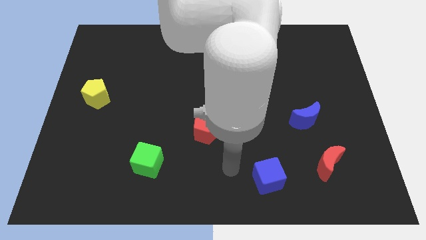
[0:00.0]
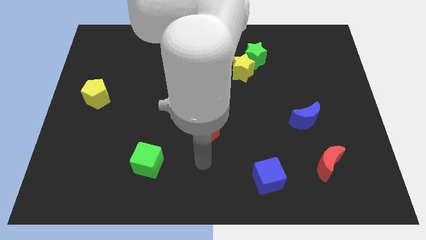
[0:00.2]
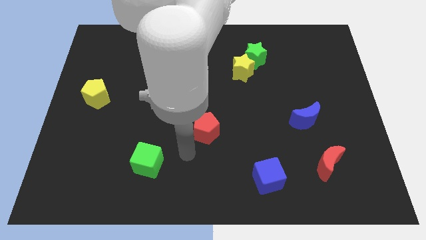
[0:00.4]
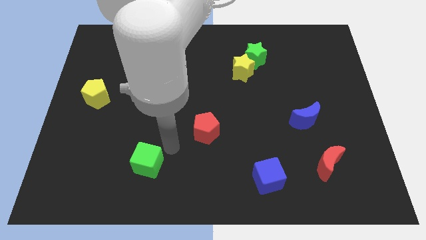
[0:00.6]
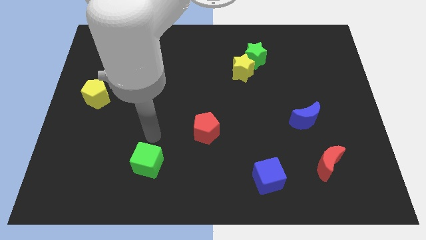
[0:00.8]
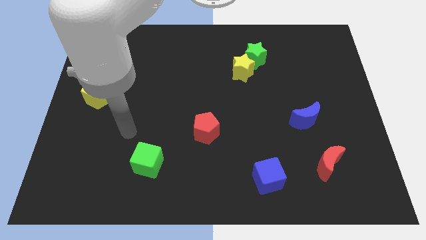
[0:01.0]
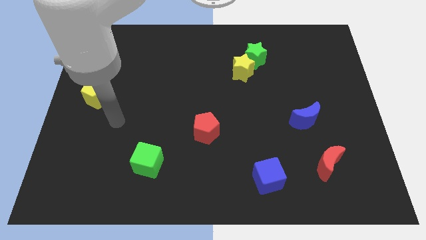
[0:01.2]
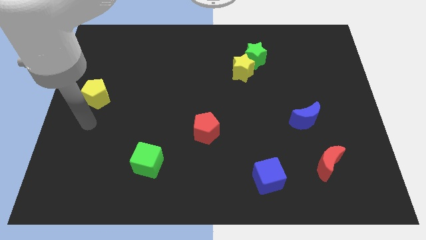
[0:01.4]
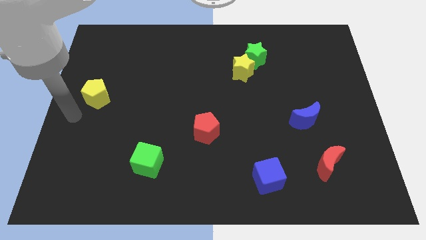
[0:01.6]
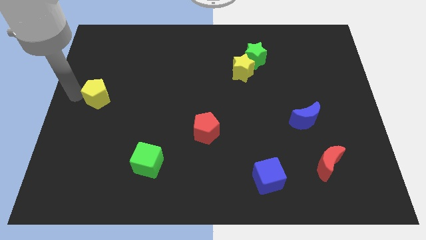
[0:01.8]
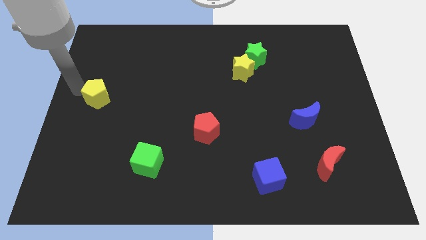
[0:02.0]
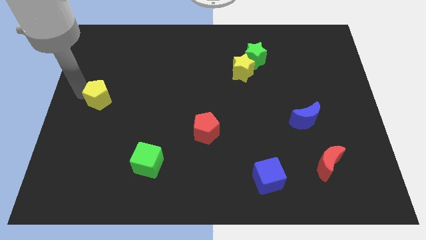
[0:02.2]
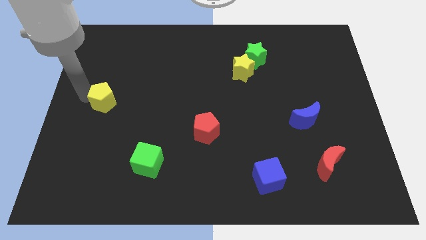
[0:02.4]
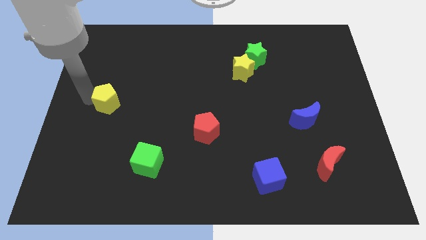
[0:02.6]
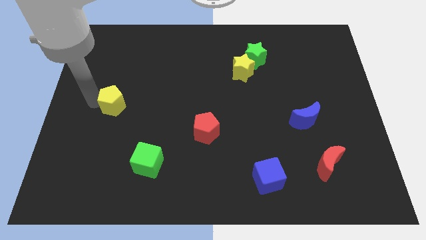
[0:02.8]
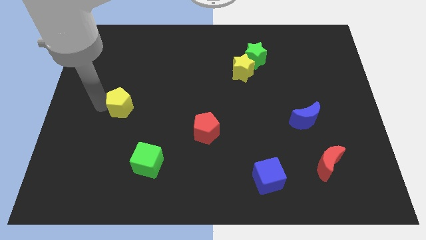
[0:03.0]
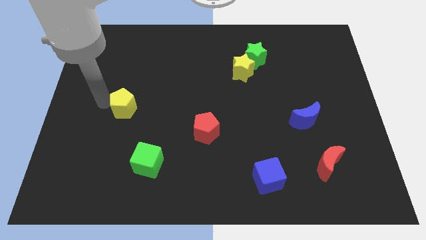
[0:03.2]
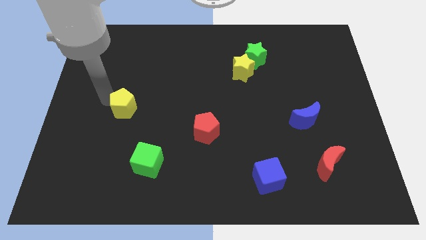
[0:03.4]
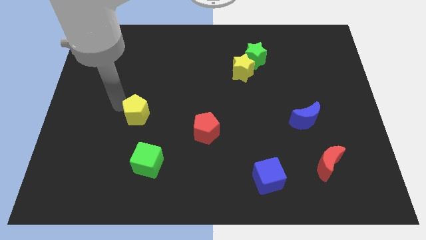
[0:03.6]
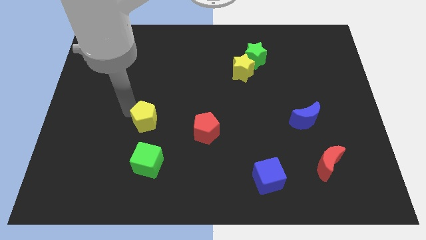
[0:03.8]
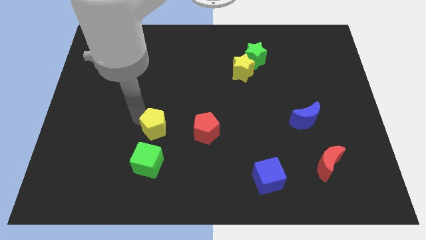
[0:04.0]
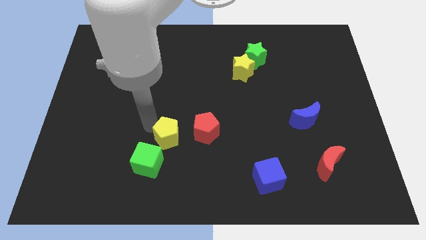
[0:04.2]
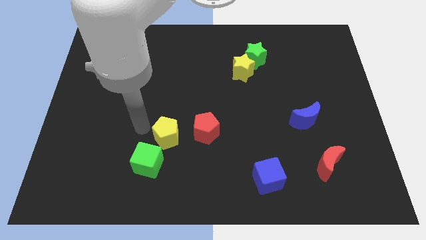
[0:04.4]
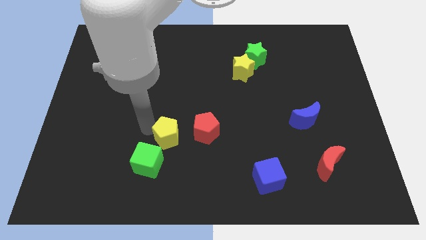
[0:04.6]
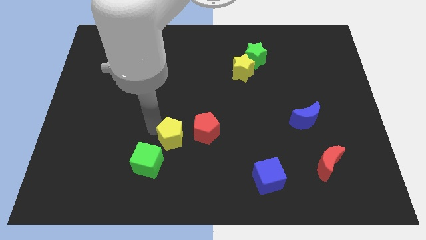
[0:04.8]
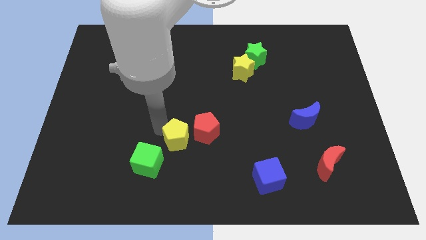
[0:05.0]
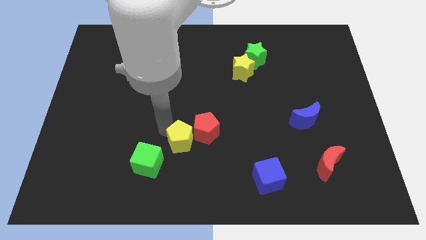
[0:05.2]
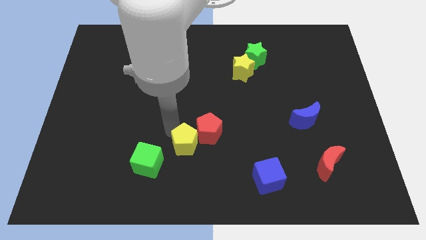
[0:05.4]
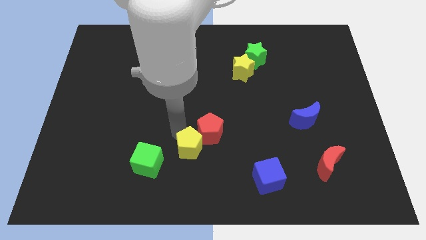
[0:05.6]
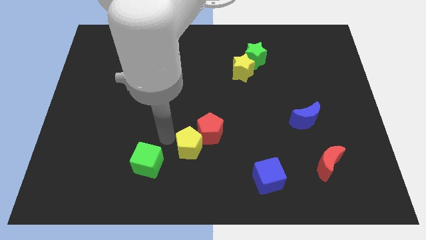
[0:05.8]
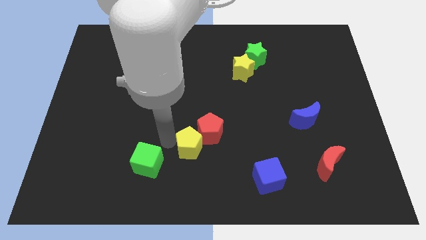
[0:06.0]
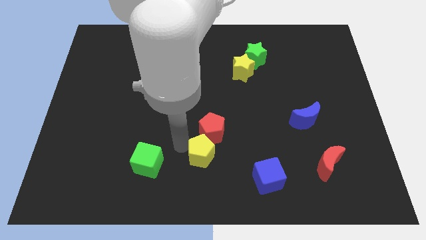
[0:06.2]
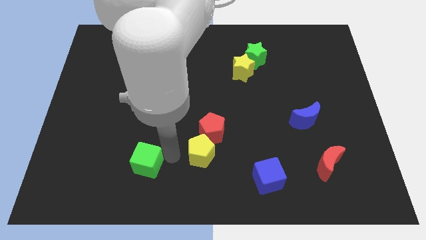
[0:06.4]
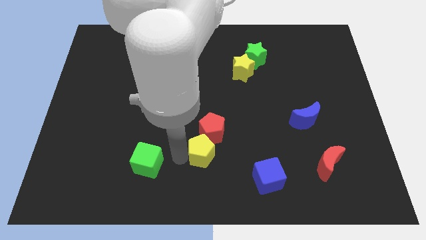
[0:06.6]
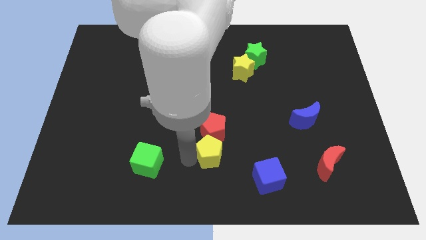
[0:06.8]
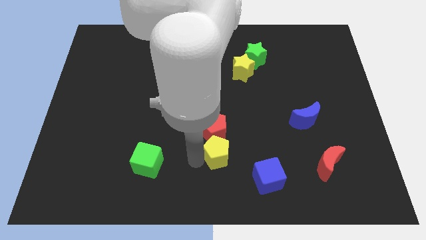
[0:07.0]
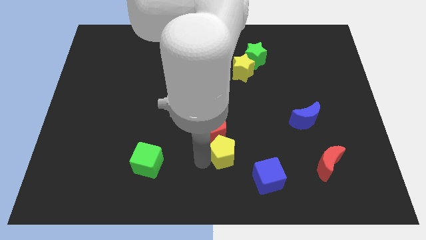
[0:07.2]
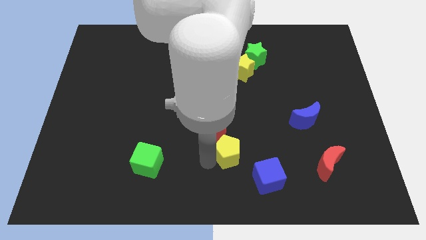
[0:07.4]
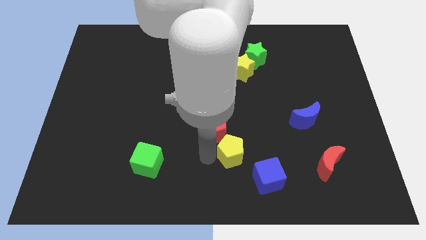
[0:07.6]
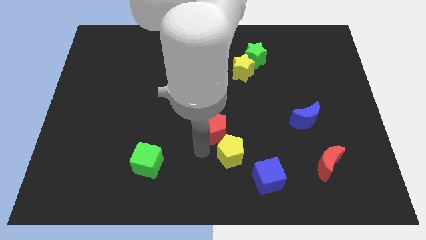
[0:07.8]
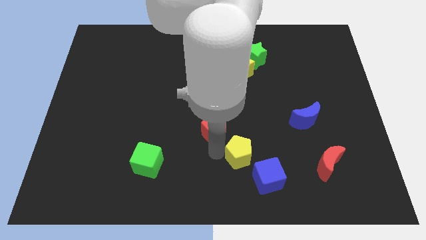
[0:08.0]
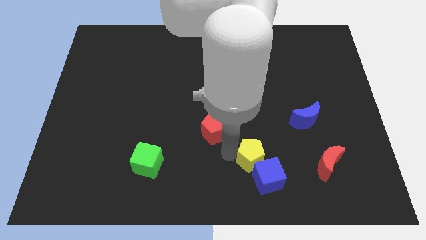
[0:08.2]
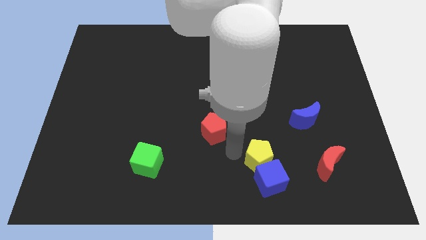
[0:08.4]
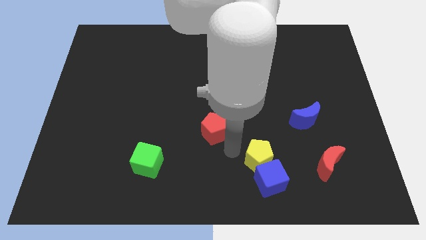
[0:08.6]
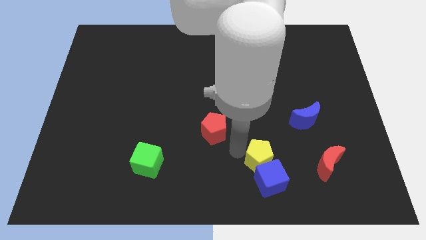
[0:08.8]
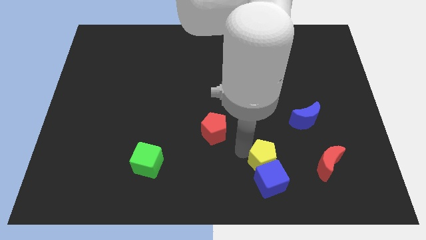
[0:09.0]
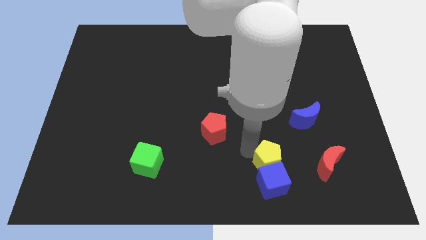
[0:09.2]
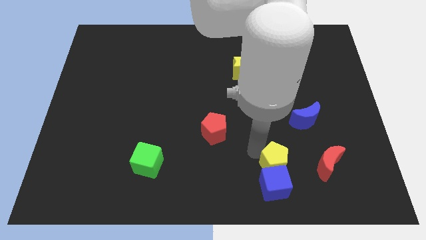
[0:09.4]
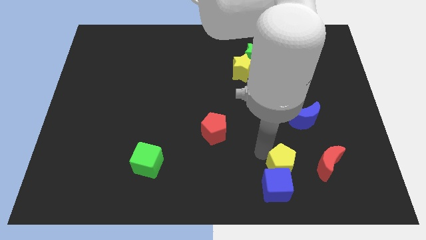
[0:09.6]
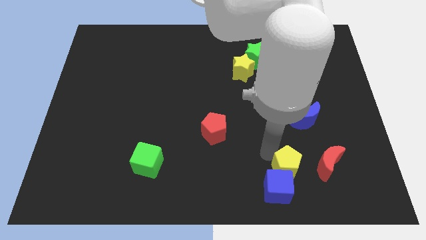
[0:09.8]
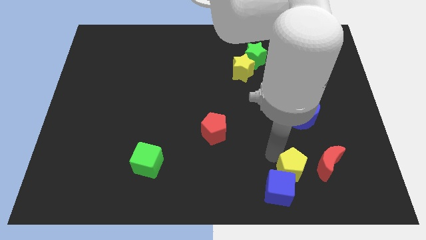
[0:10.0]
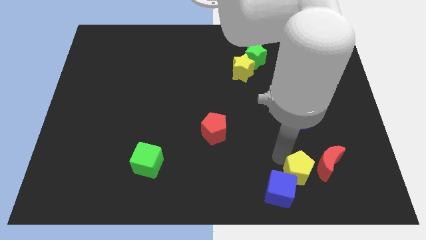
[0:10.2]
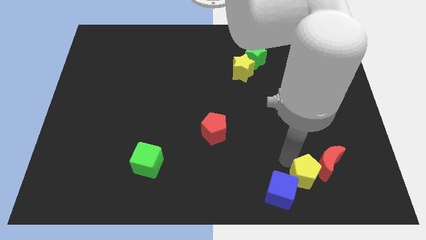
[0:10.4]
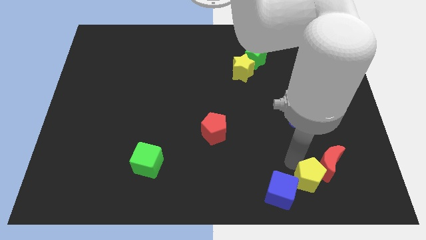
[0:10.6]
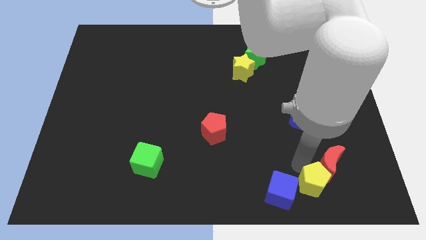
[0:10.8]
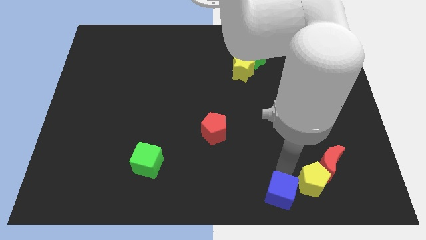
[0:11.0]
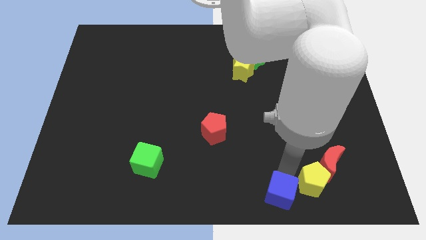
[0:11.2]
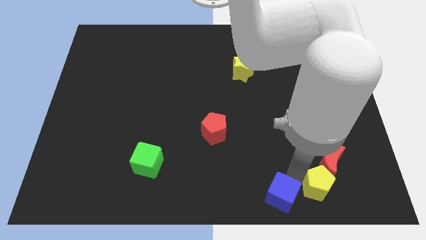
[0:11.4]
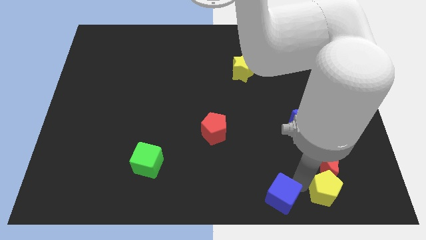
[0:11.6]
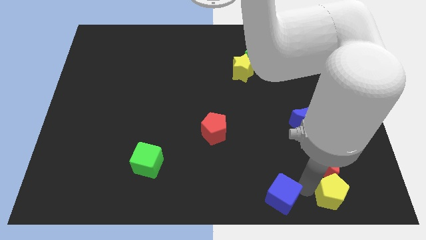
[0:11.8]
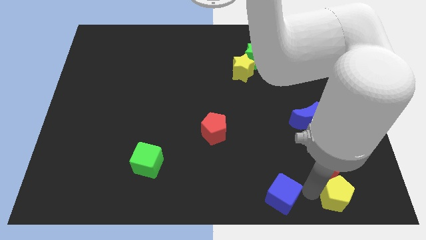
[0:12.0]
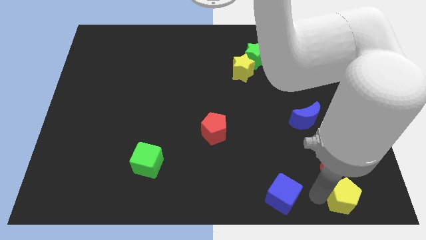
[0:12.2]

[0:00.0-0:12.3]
move the yellow pentagon to the bottom right

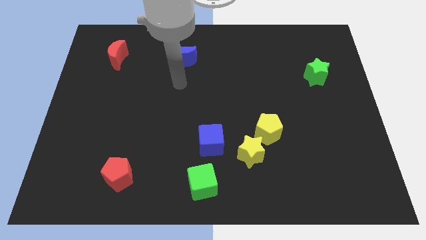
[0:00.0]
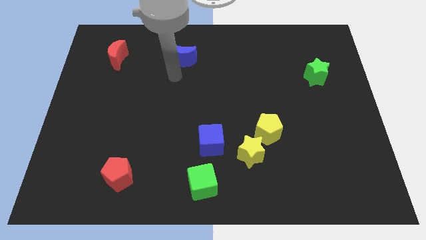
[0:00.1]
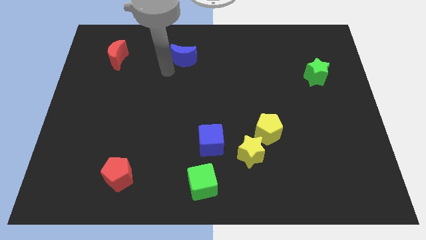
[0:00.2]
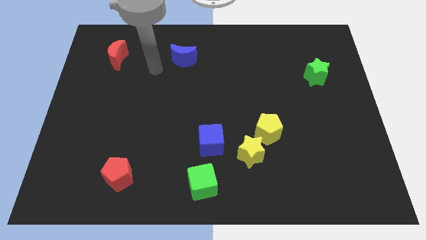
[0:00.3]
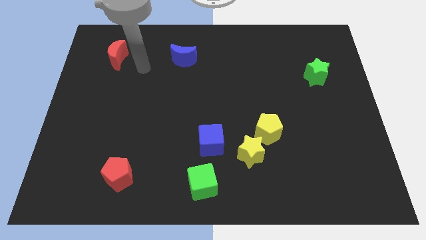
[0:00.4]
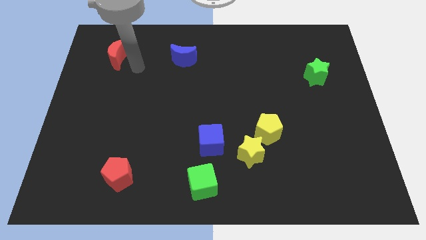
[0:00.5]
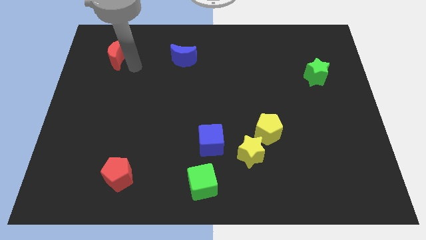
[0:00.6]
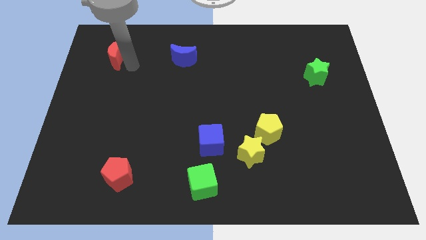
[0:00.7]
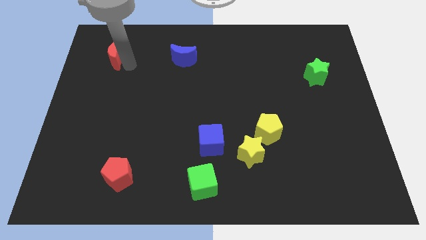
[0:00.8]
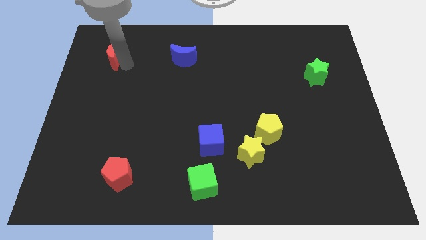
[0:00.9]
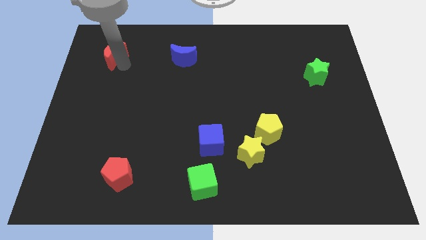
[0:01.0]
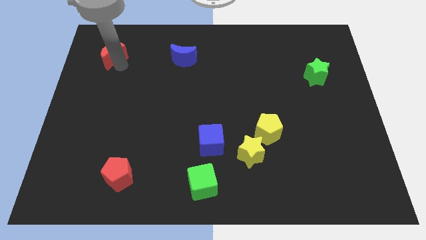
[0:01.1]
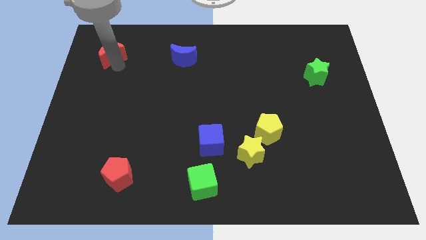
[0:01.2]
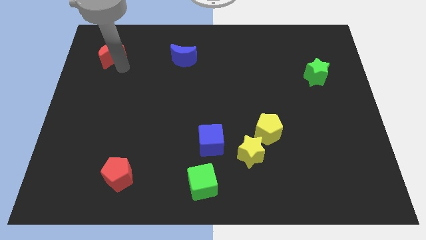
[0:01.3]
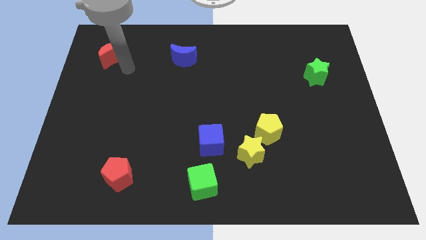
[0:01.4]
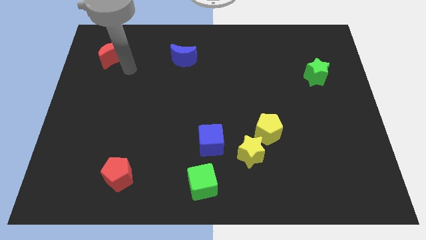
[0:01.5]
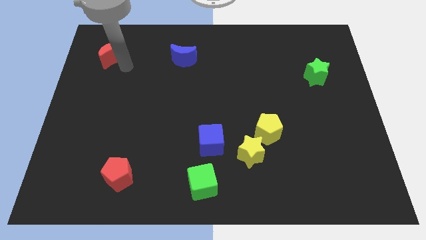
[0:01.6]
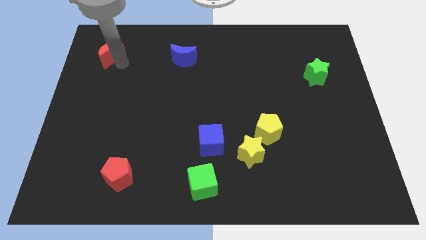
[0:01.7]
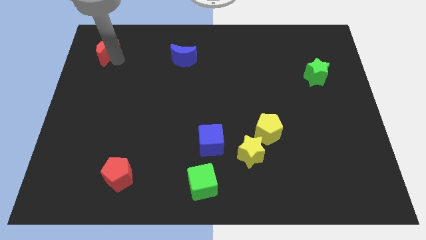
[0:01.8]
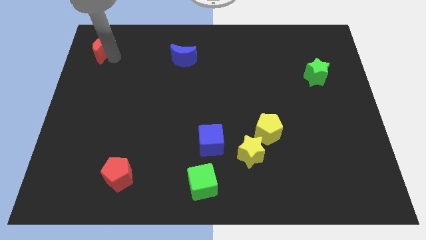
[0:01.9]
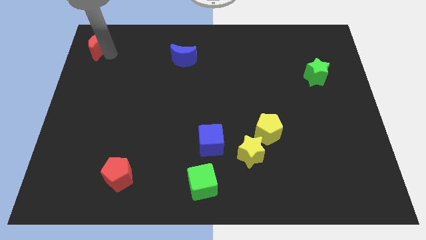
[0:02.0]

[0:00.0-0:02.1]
slide the red moon to the top left corner
